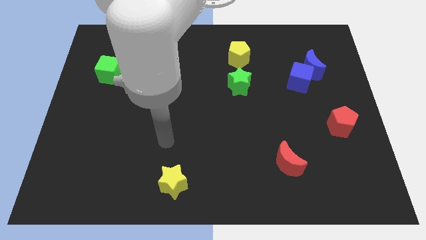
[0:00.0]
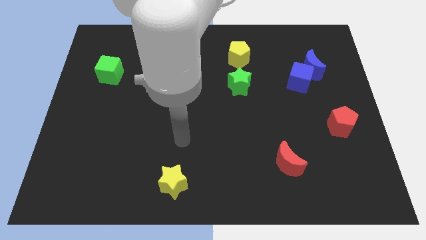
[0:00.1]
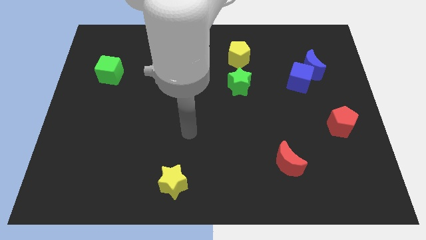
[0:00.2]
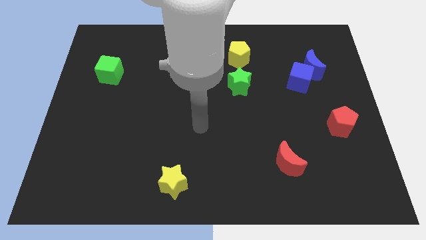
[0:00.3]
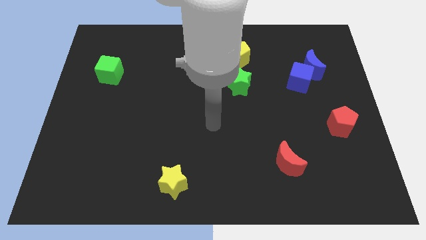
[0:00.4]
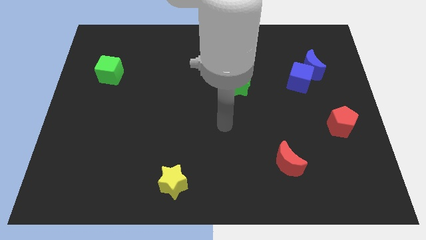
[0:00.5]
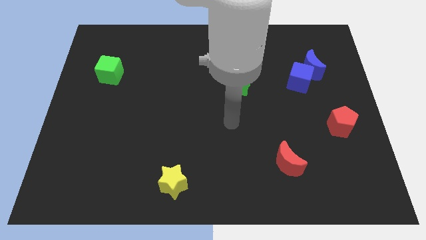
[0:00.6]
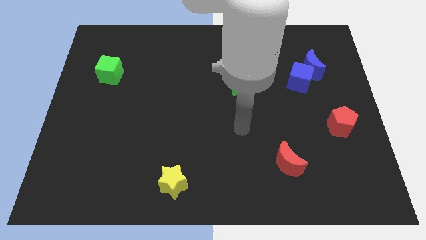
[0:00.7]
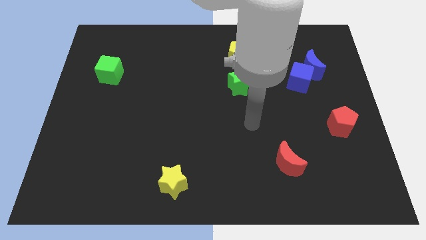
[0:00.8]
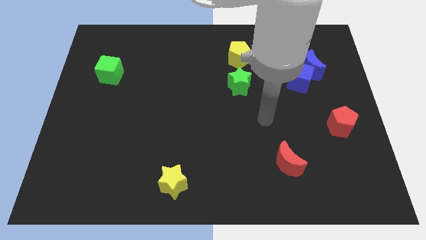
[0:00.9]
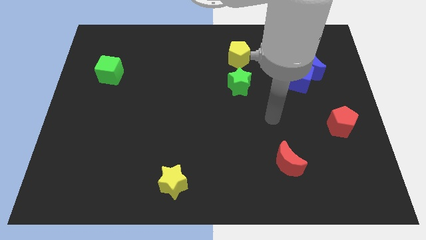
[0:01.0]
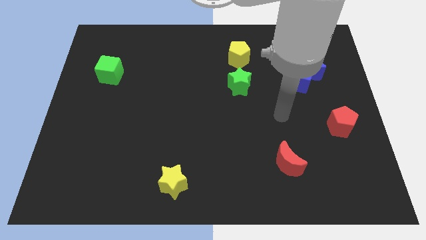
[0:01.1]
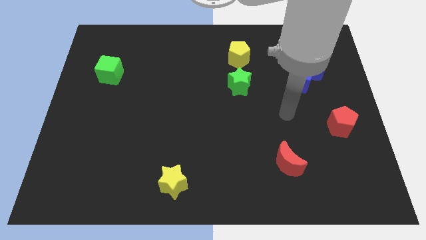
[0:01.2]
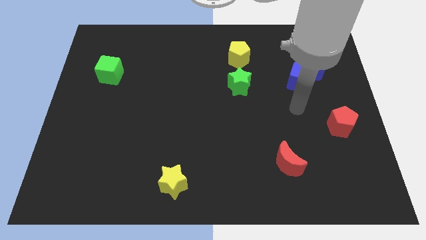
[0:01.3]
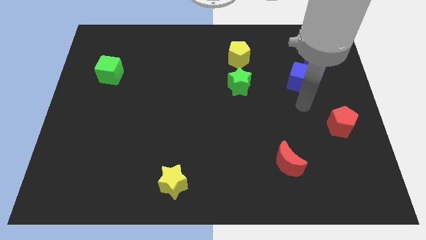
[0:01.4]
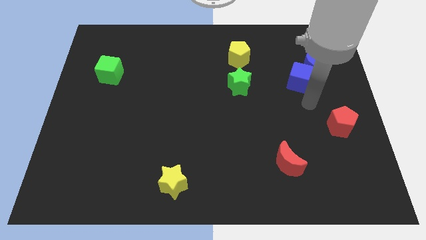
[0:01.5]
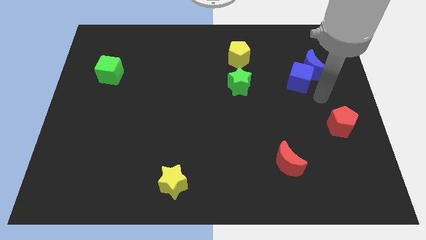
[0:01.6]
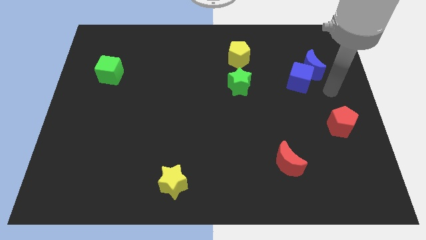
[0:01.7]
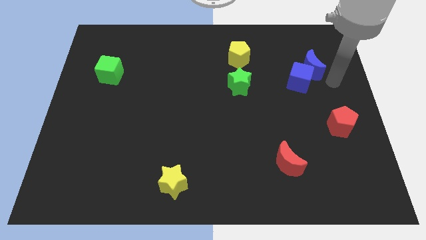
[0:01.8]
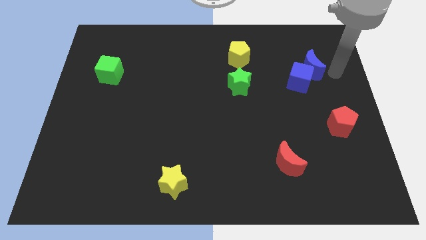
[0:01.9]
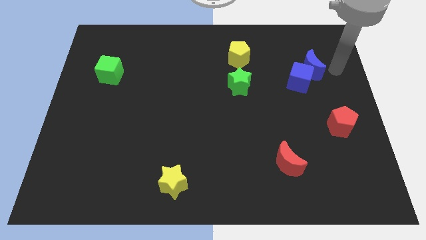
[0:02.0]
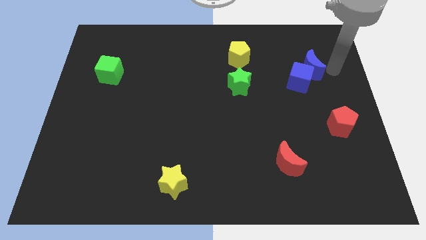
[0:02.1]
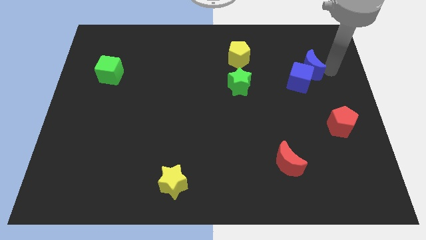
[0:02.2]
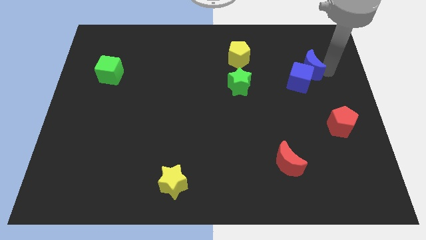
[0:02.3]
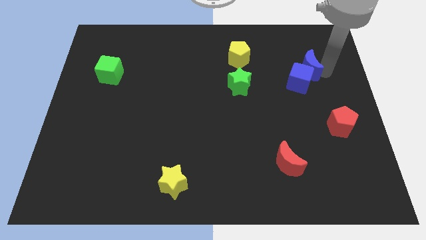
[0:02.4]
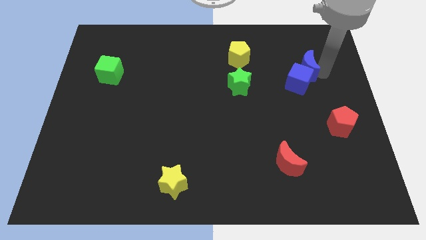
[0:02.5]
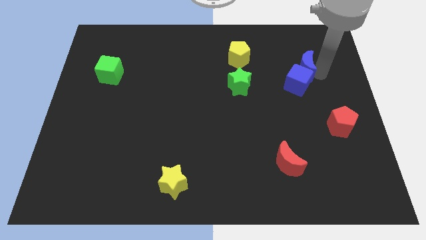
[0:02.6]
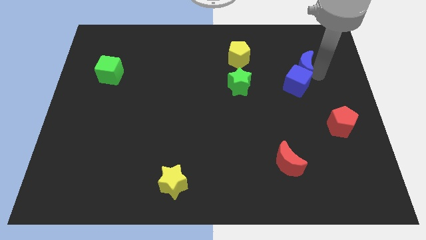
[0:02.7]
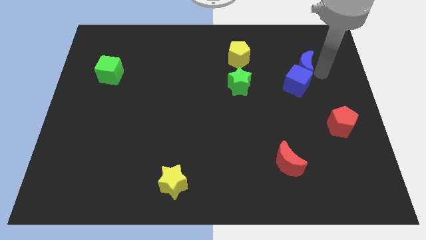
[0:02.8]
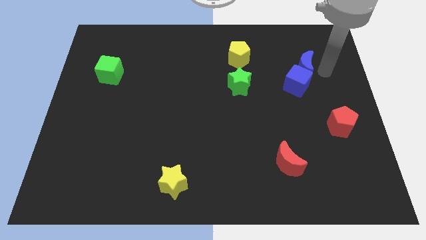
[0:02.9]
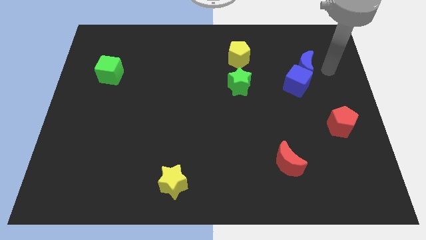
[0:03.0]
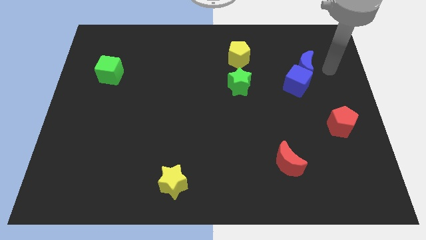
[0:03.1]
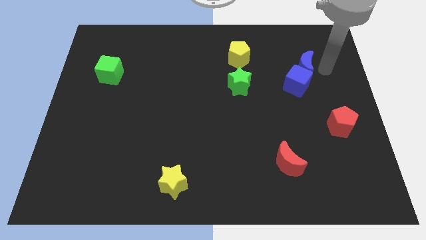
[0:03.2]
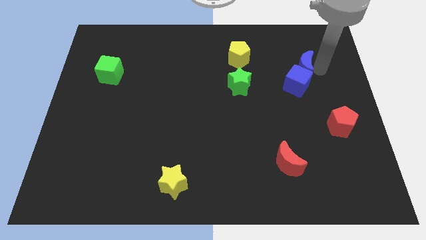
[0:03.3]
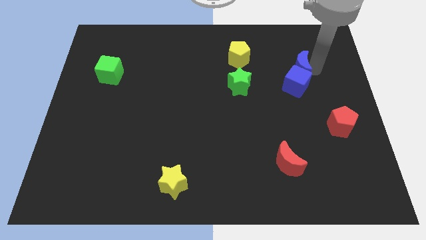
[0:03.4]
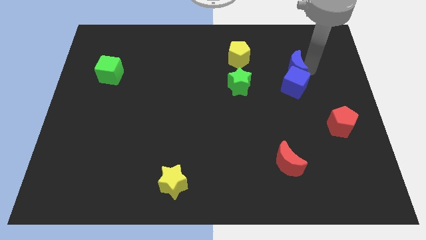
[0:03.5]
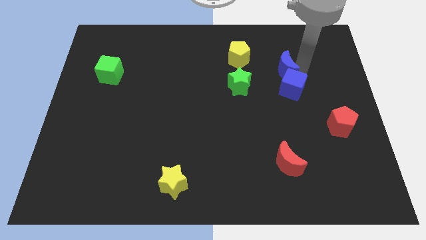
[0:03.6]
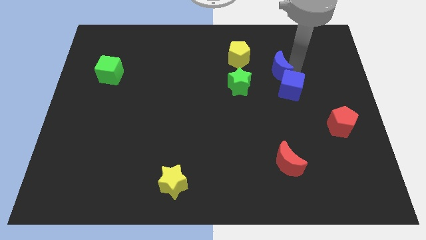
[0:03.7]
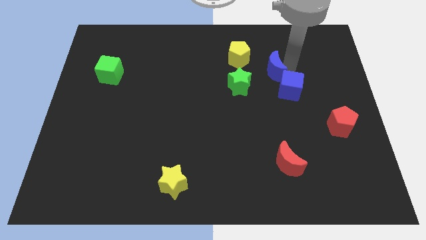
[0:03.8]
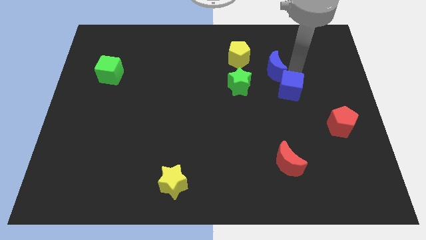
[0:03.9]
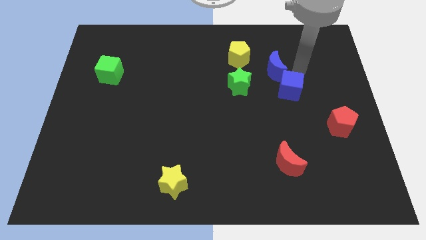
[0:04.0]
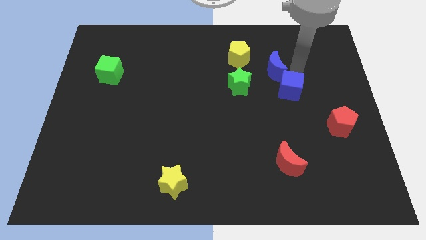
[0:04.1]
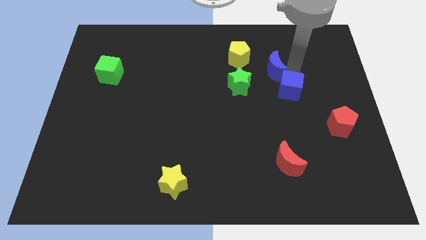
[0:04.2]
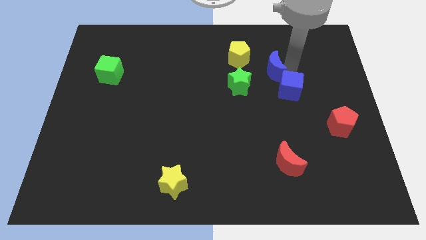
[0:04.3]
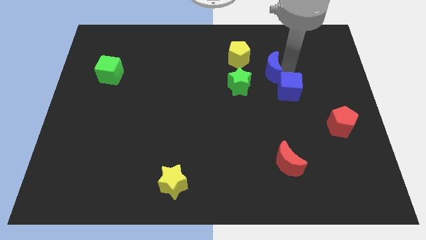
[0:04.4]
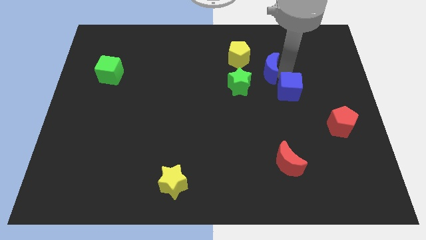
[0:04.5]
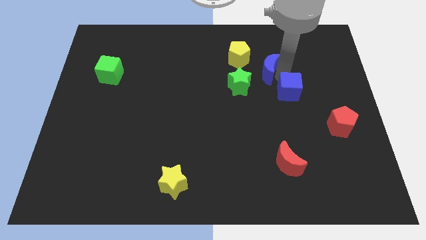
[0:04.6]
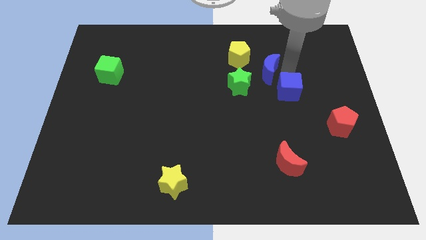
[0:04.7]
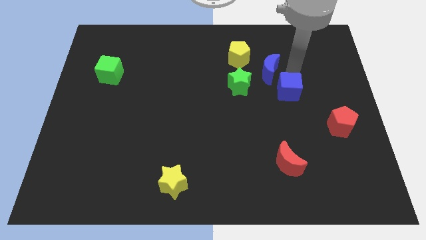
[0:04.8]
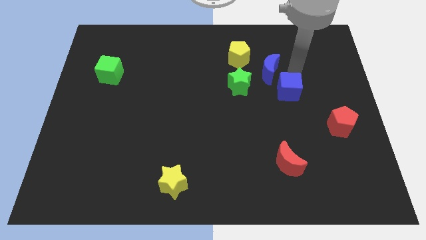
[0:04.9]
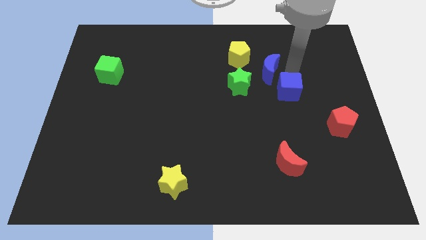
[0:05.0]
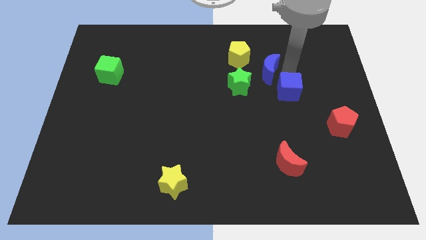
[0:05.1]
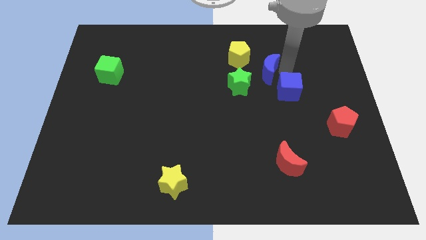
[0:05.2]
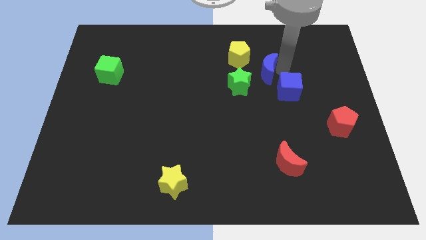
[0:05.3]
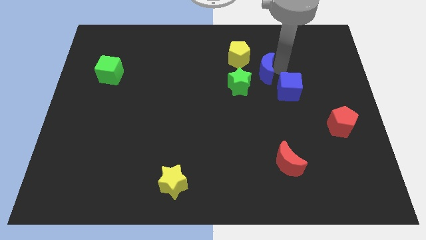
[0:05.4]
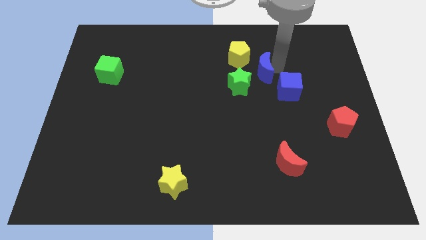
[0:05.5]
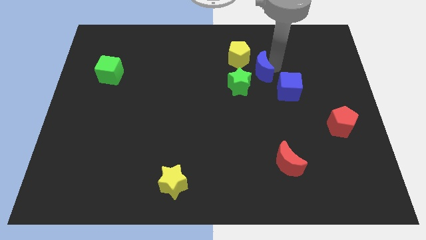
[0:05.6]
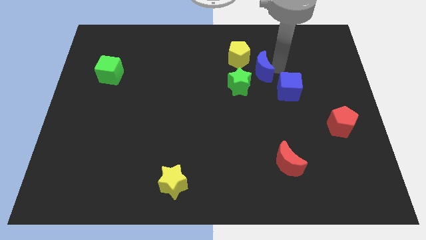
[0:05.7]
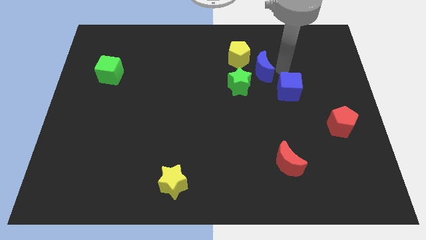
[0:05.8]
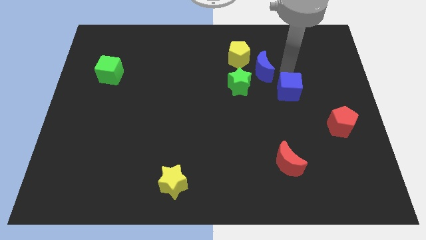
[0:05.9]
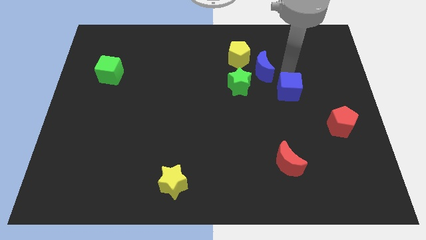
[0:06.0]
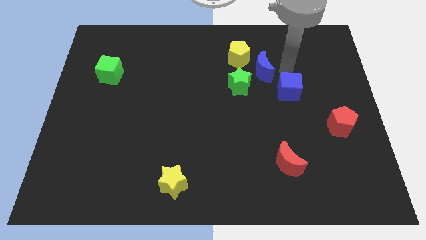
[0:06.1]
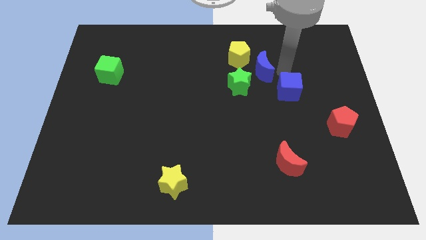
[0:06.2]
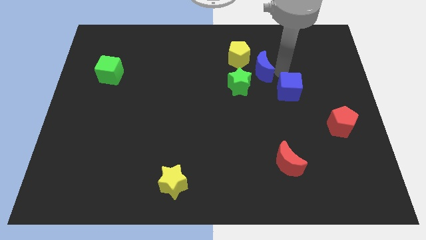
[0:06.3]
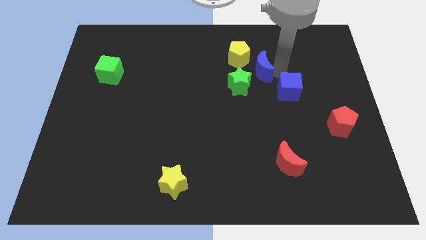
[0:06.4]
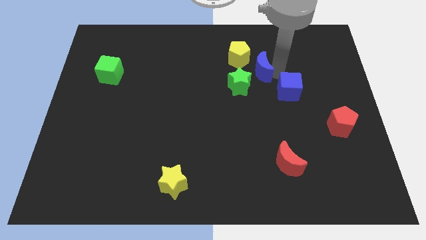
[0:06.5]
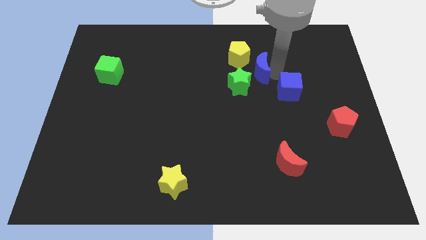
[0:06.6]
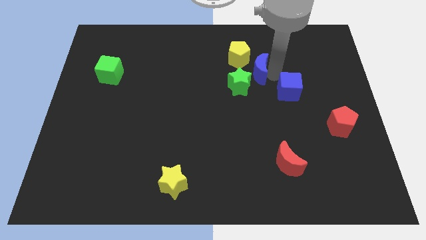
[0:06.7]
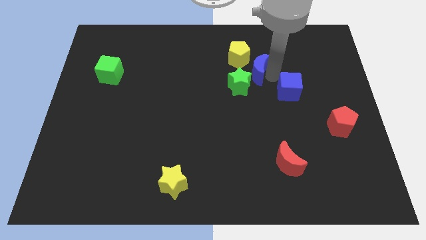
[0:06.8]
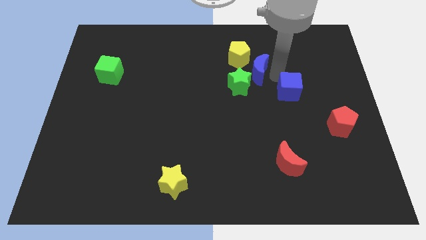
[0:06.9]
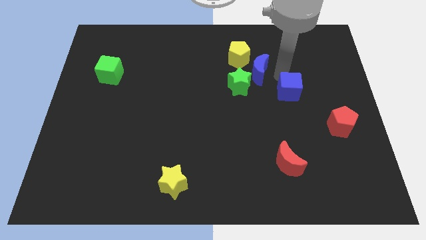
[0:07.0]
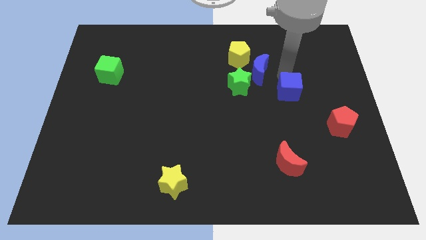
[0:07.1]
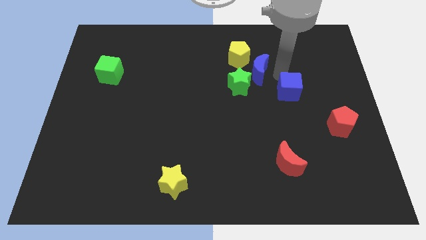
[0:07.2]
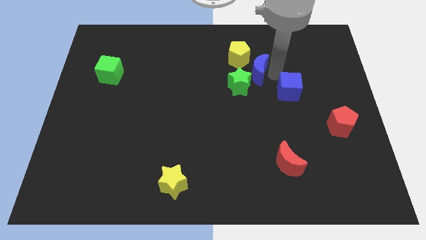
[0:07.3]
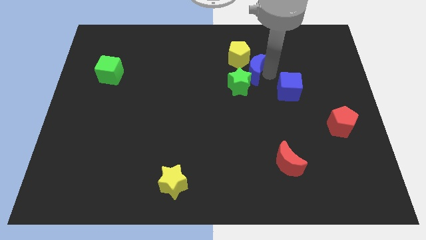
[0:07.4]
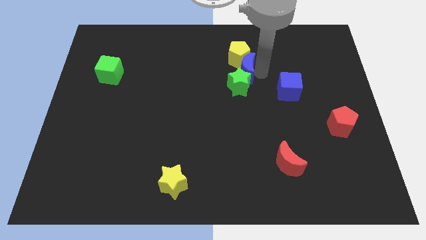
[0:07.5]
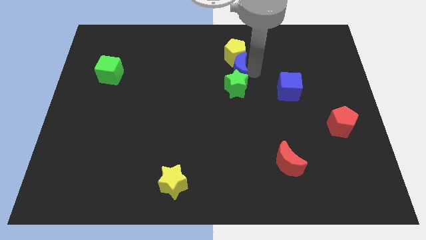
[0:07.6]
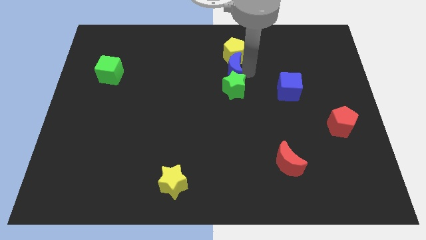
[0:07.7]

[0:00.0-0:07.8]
slide the blue moon to the left

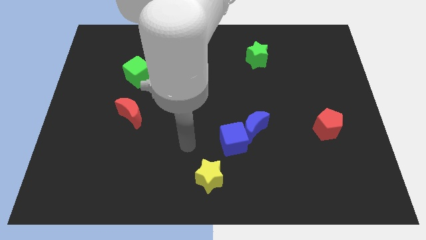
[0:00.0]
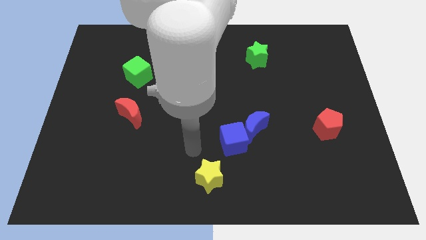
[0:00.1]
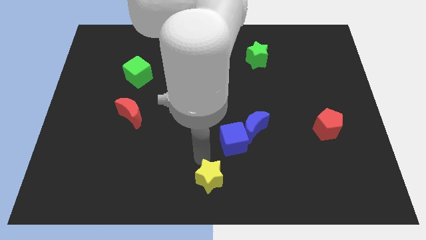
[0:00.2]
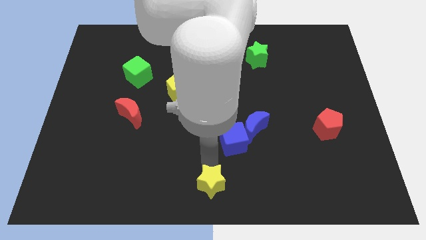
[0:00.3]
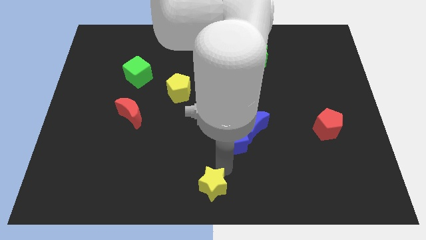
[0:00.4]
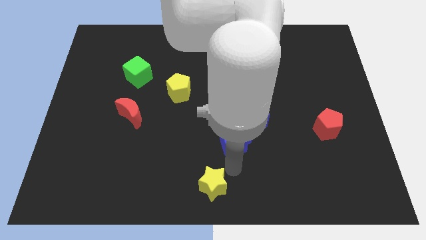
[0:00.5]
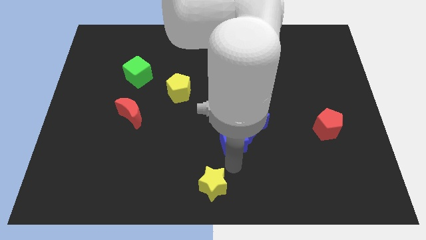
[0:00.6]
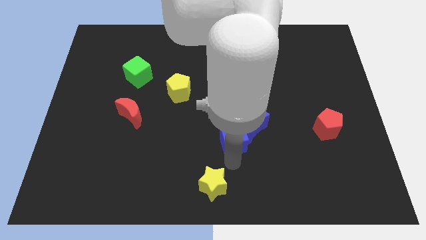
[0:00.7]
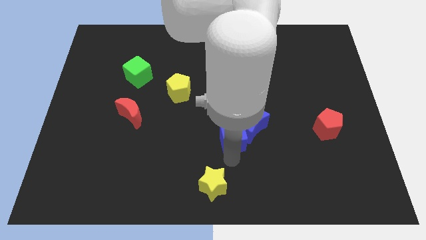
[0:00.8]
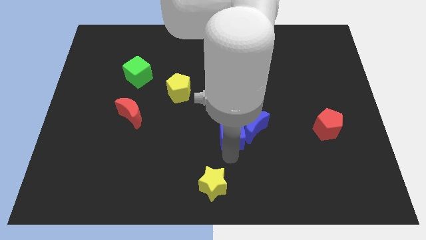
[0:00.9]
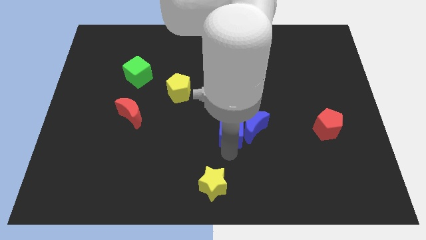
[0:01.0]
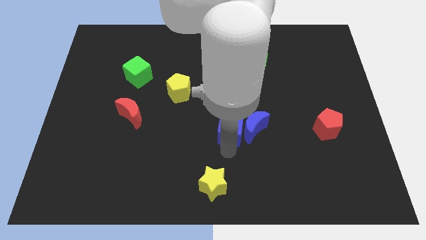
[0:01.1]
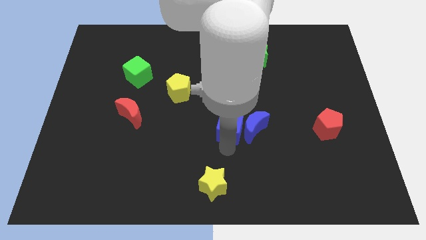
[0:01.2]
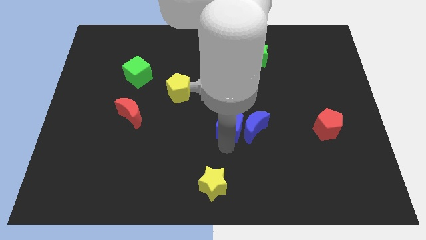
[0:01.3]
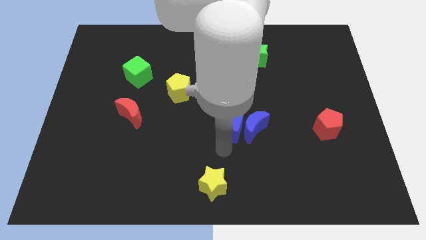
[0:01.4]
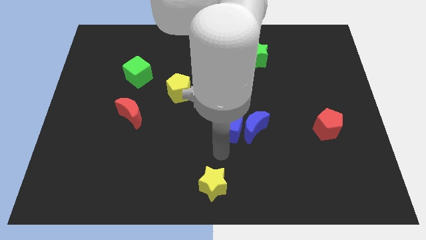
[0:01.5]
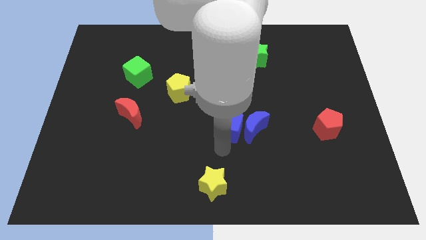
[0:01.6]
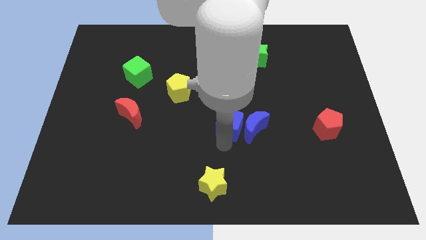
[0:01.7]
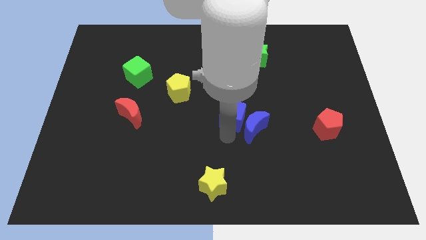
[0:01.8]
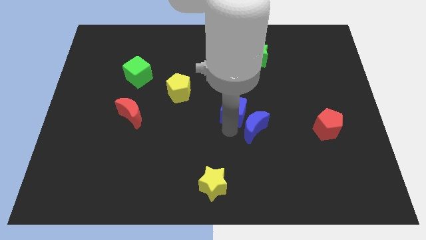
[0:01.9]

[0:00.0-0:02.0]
slightly push the blue cube up
